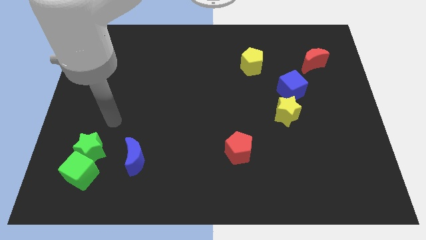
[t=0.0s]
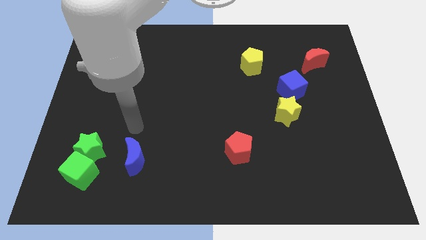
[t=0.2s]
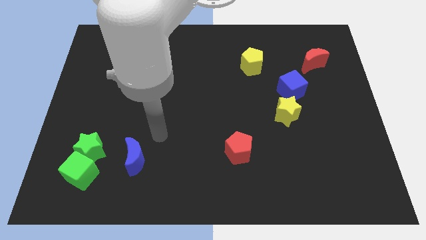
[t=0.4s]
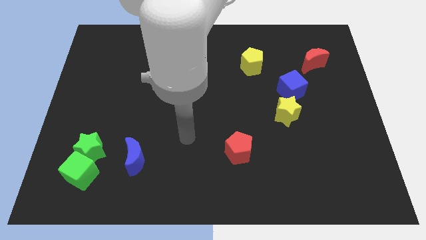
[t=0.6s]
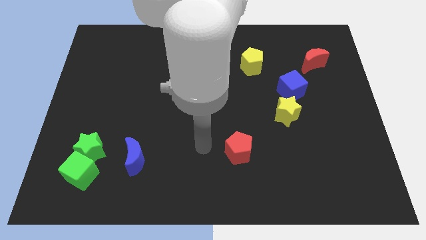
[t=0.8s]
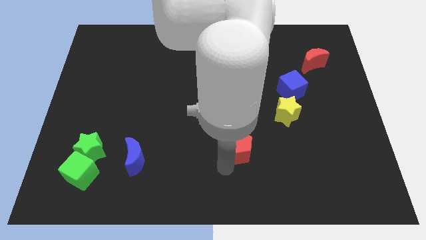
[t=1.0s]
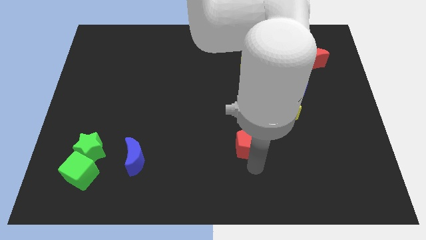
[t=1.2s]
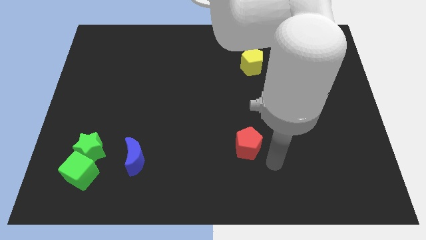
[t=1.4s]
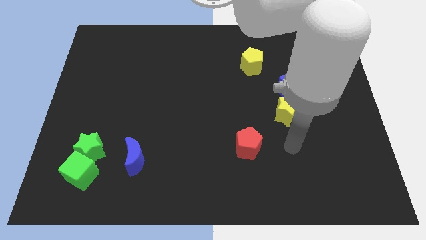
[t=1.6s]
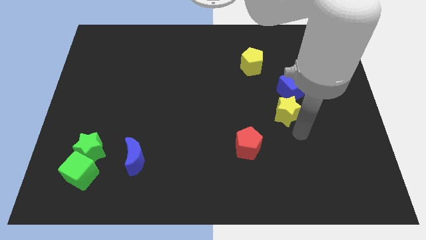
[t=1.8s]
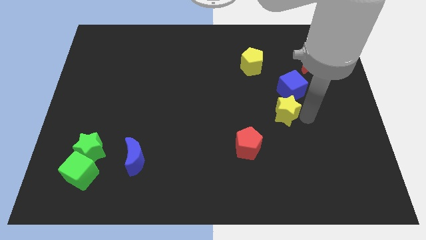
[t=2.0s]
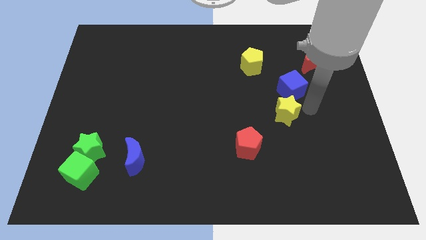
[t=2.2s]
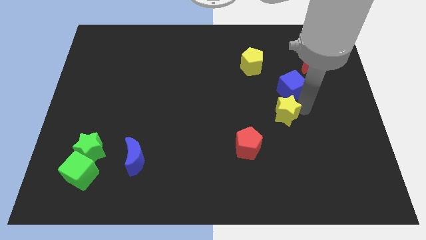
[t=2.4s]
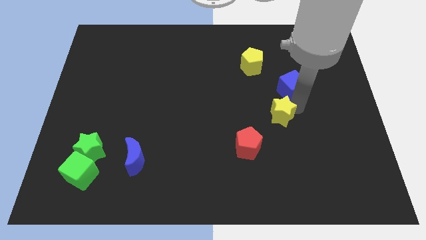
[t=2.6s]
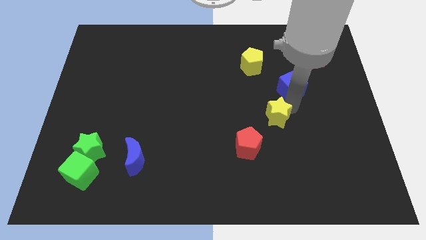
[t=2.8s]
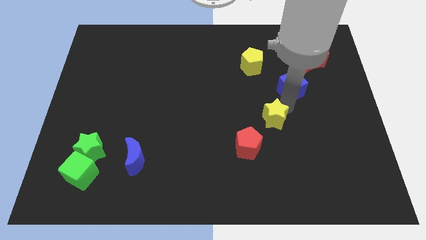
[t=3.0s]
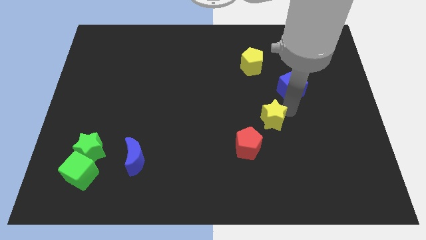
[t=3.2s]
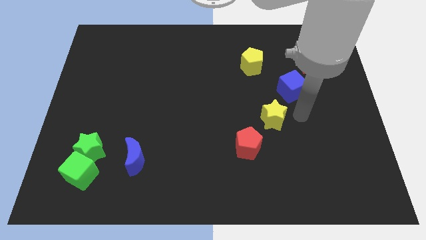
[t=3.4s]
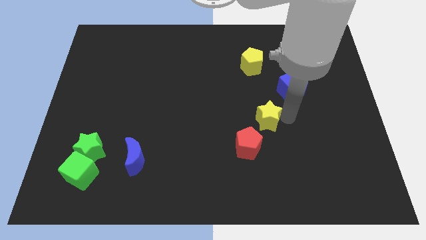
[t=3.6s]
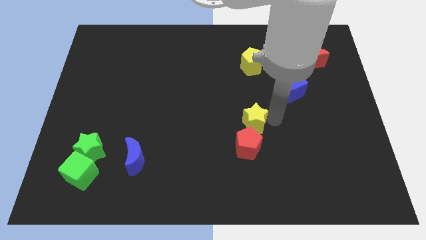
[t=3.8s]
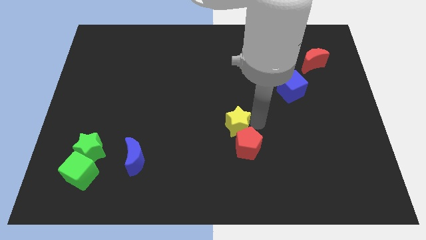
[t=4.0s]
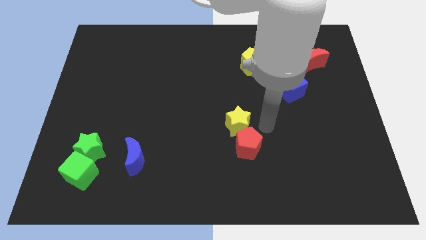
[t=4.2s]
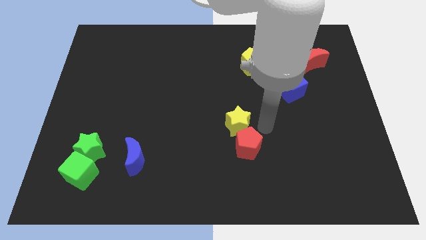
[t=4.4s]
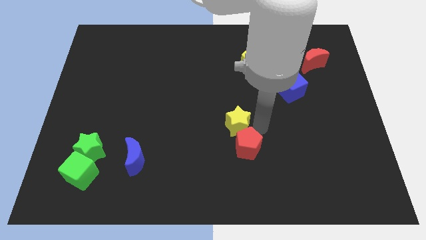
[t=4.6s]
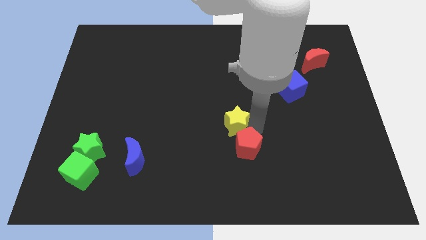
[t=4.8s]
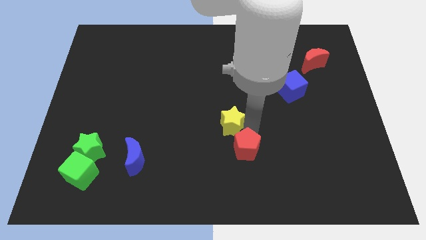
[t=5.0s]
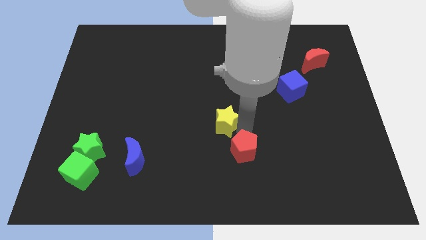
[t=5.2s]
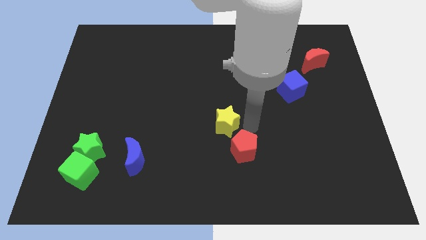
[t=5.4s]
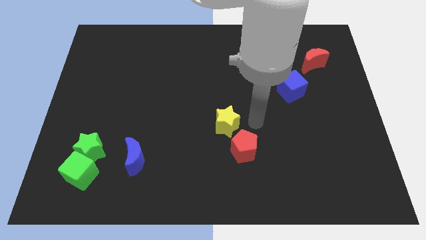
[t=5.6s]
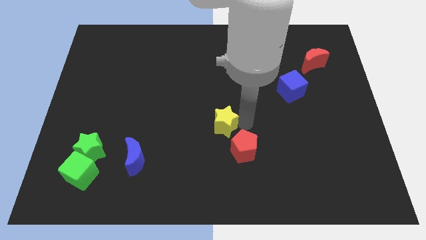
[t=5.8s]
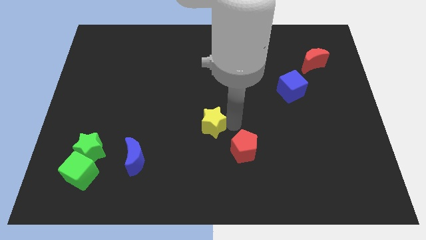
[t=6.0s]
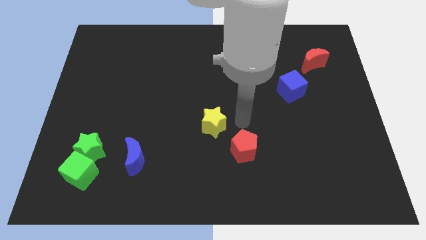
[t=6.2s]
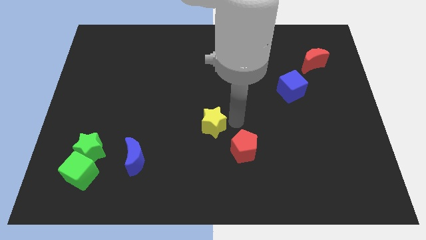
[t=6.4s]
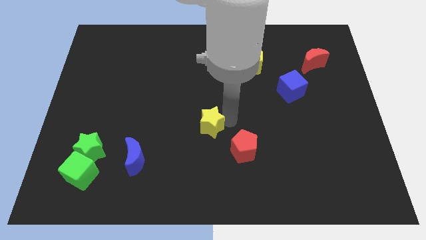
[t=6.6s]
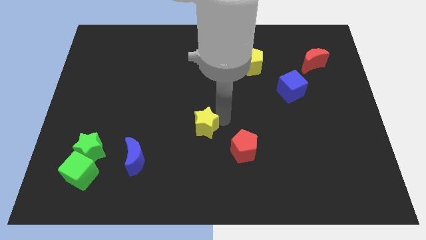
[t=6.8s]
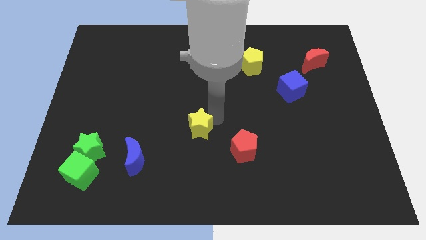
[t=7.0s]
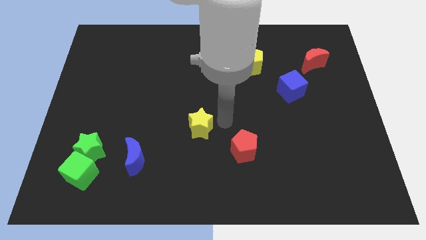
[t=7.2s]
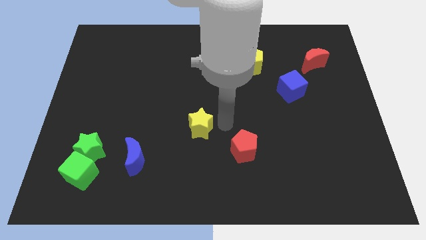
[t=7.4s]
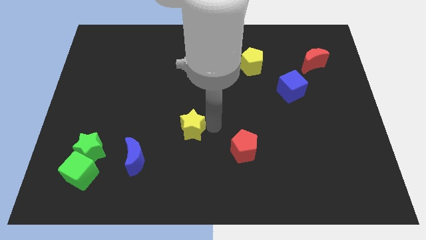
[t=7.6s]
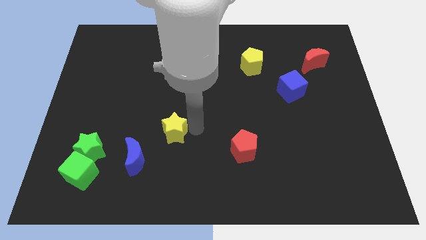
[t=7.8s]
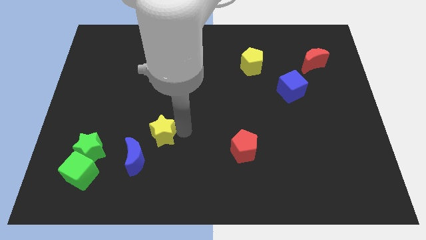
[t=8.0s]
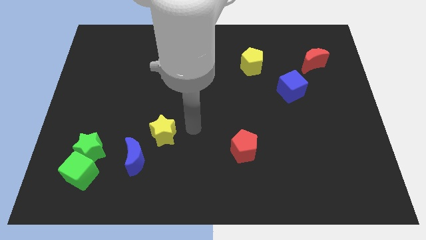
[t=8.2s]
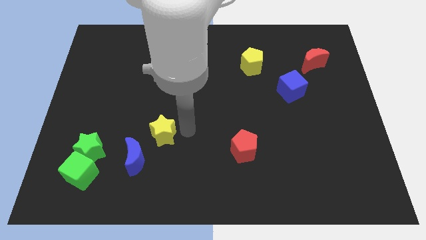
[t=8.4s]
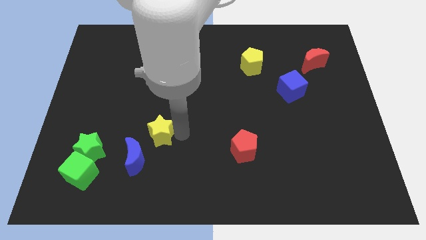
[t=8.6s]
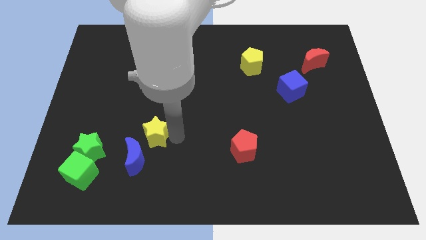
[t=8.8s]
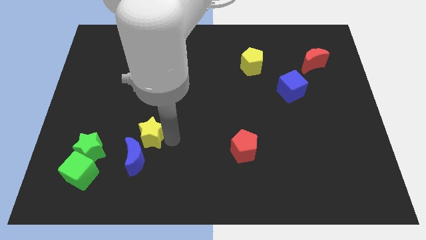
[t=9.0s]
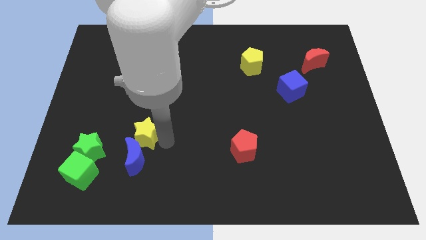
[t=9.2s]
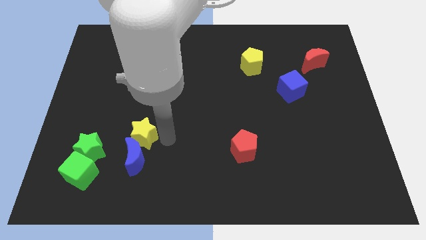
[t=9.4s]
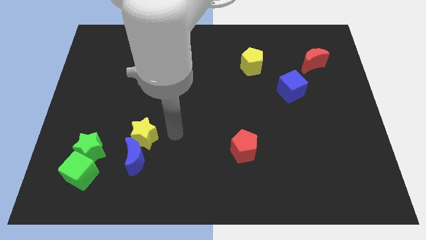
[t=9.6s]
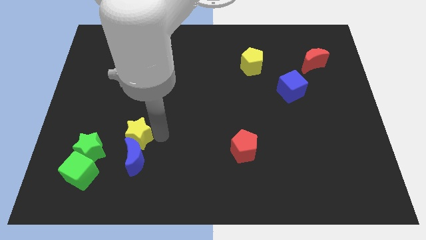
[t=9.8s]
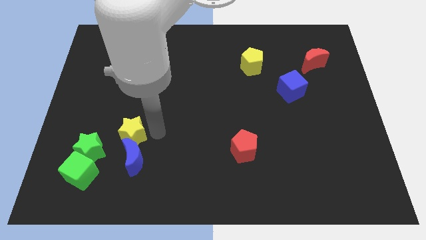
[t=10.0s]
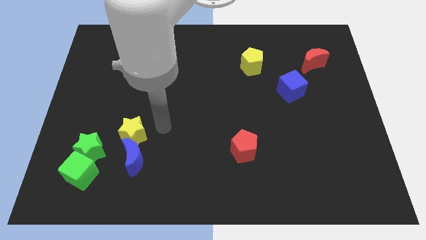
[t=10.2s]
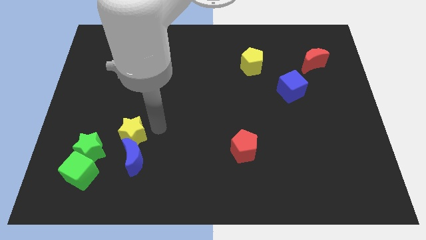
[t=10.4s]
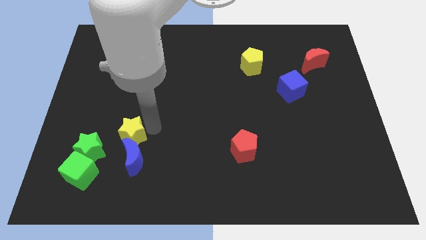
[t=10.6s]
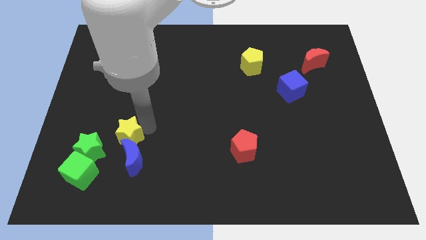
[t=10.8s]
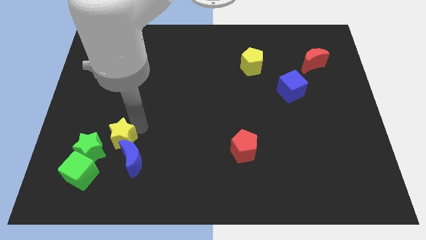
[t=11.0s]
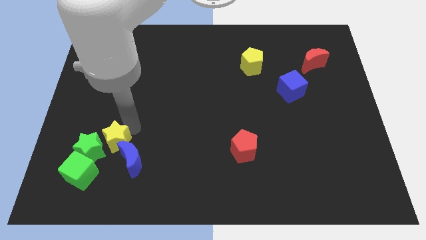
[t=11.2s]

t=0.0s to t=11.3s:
put the yellow star towards the green star

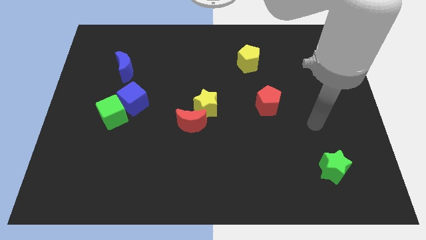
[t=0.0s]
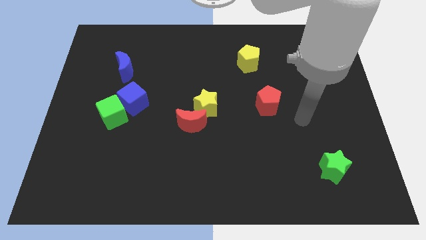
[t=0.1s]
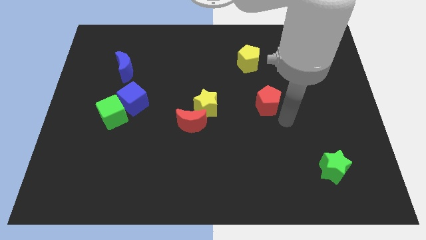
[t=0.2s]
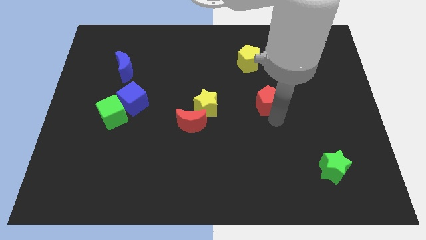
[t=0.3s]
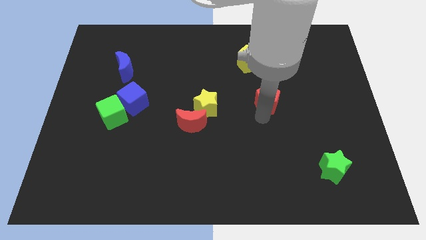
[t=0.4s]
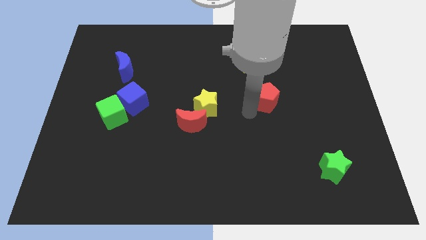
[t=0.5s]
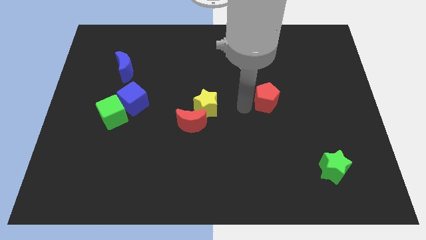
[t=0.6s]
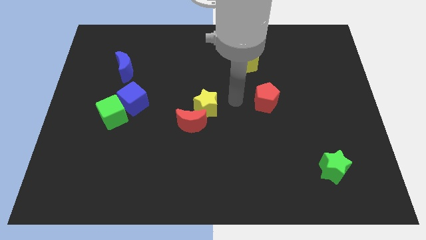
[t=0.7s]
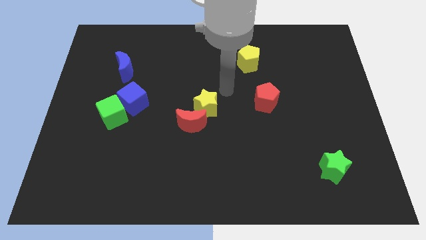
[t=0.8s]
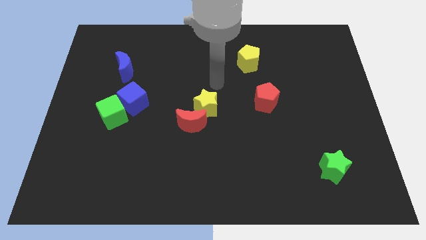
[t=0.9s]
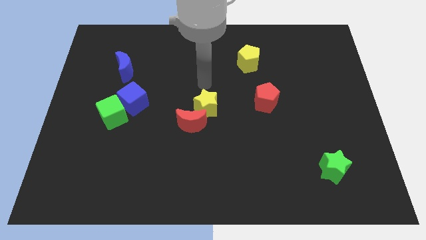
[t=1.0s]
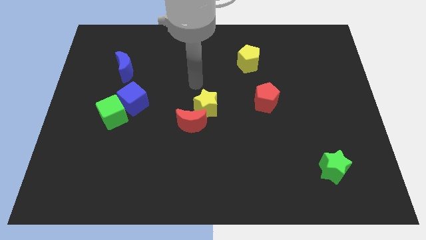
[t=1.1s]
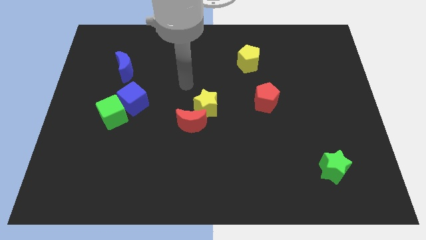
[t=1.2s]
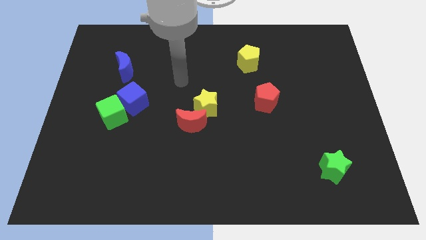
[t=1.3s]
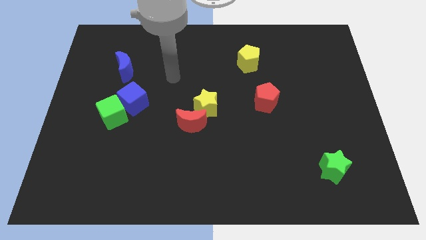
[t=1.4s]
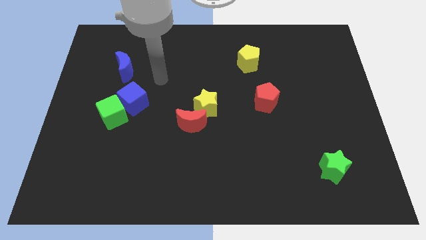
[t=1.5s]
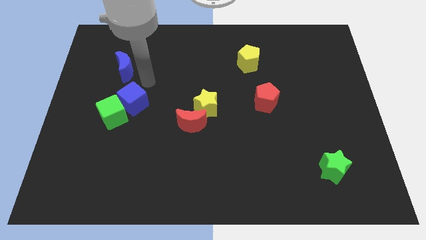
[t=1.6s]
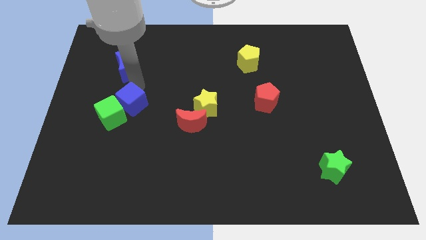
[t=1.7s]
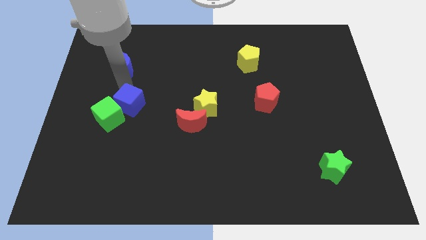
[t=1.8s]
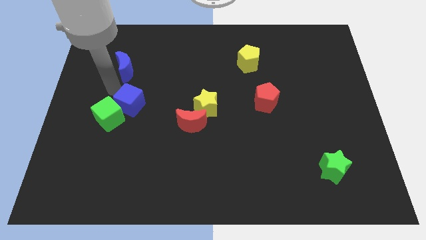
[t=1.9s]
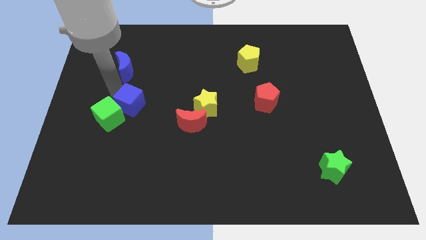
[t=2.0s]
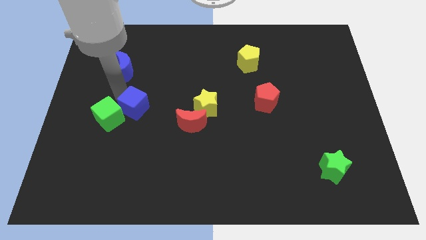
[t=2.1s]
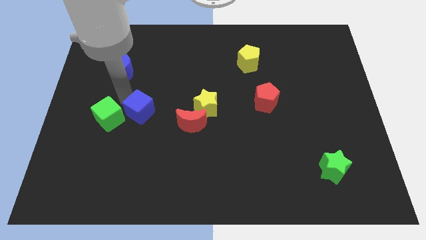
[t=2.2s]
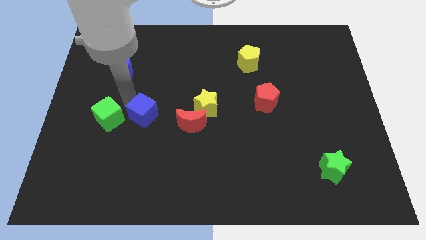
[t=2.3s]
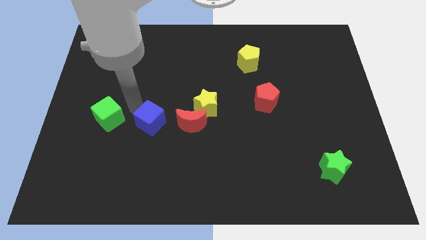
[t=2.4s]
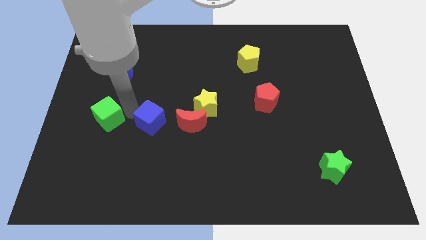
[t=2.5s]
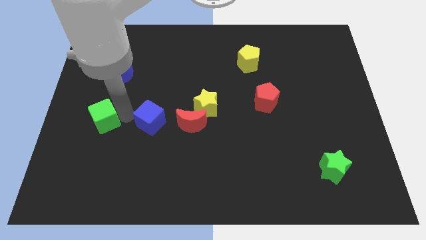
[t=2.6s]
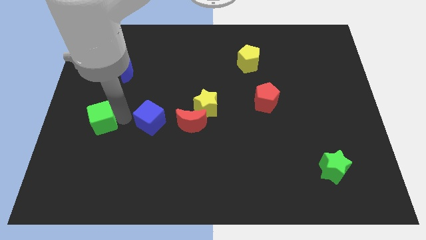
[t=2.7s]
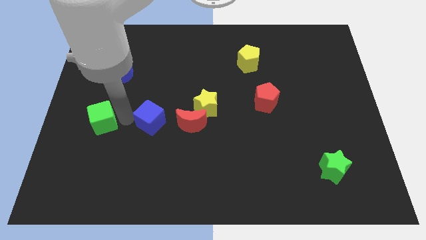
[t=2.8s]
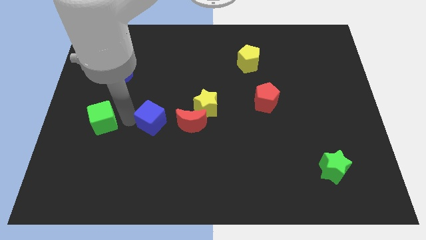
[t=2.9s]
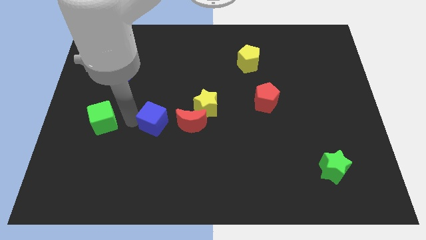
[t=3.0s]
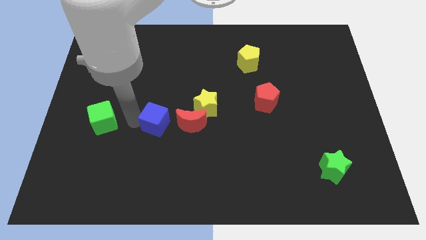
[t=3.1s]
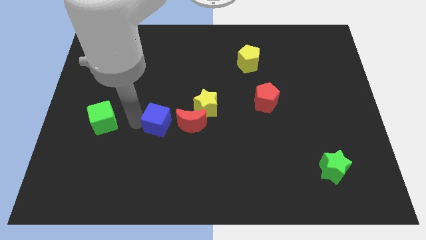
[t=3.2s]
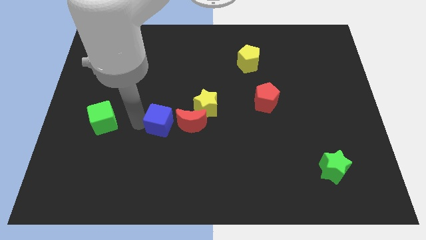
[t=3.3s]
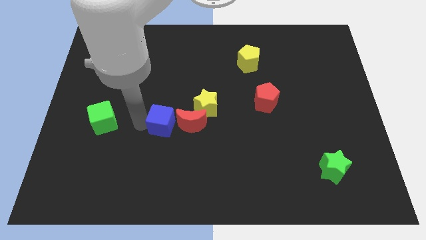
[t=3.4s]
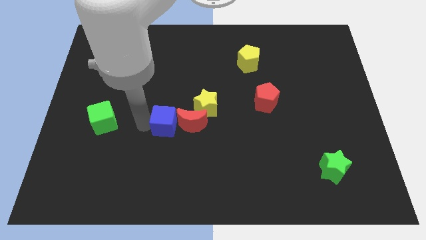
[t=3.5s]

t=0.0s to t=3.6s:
move the blue cube to the red moon
